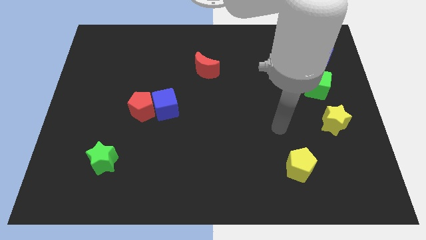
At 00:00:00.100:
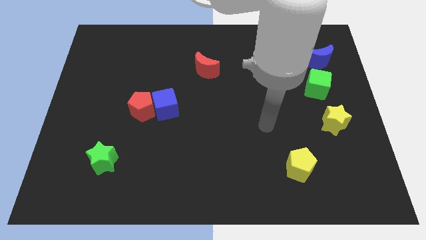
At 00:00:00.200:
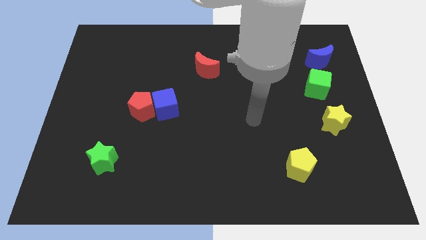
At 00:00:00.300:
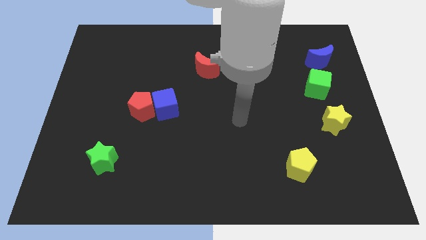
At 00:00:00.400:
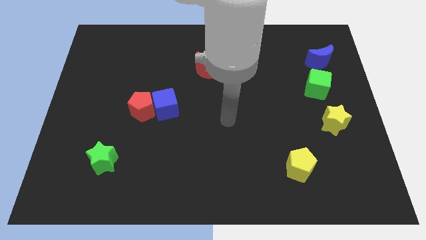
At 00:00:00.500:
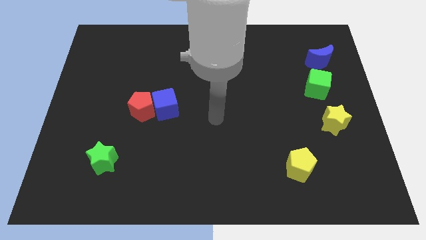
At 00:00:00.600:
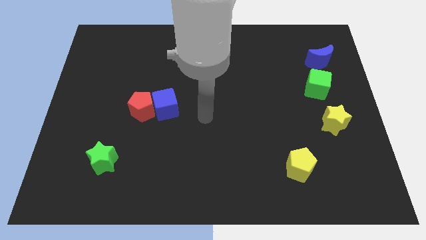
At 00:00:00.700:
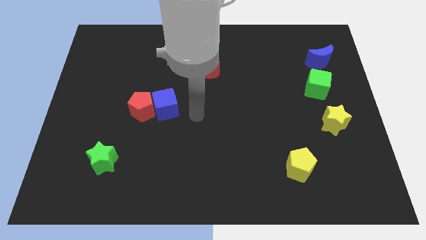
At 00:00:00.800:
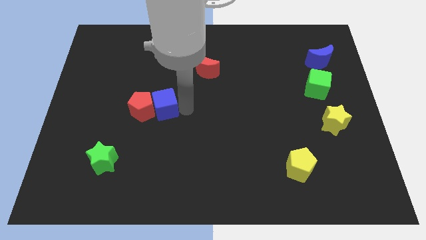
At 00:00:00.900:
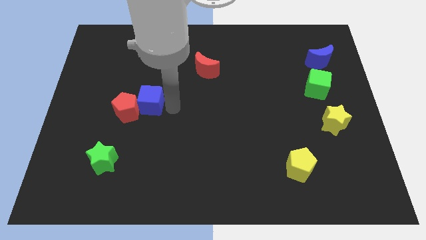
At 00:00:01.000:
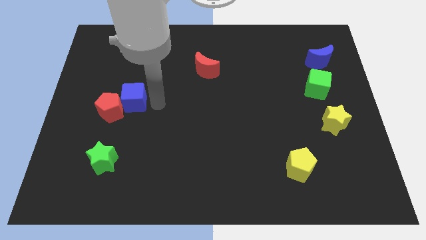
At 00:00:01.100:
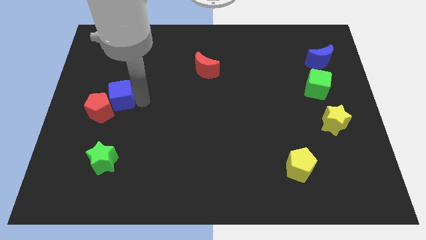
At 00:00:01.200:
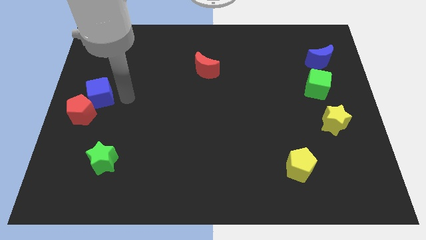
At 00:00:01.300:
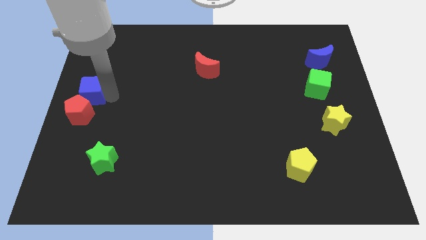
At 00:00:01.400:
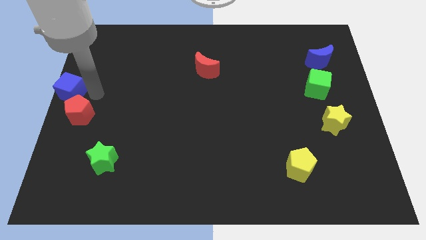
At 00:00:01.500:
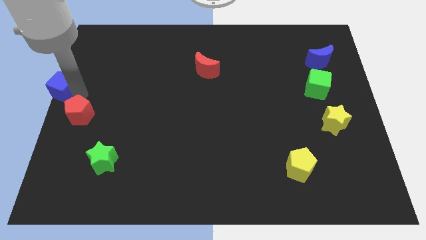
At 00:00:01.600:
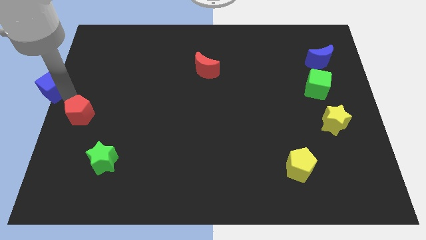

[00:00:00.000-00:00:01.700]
pull the red pentagon apart from the blue cube

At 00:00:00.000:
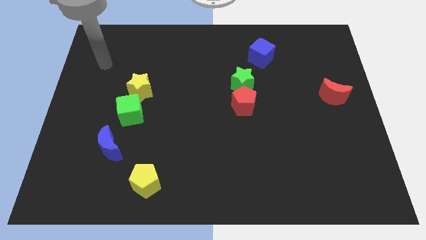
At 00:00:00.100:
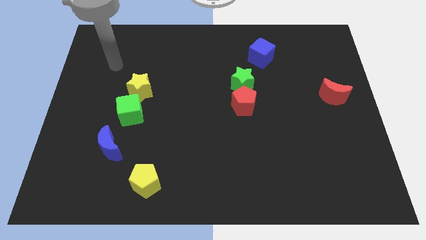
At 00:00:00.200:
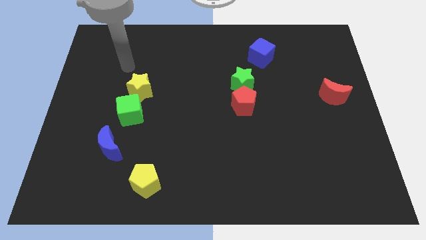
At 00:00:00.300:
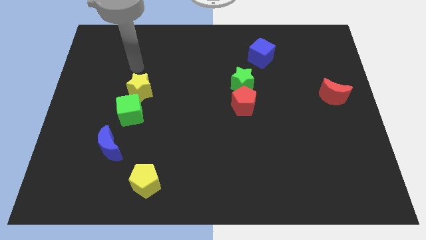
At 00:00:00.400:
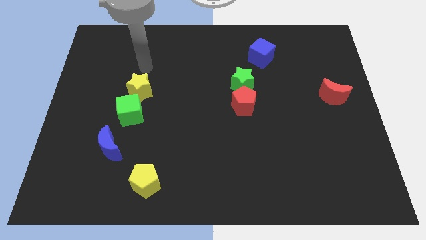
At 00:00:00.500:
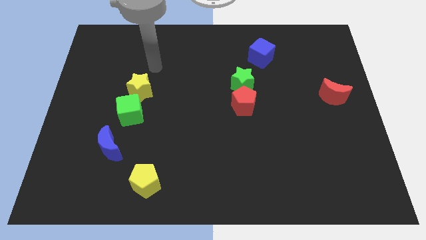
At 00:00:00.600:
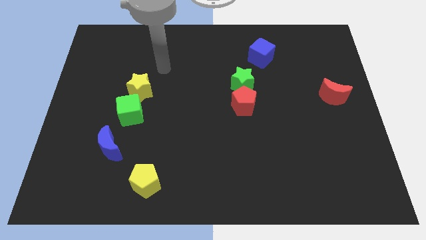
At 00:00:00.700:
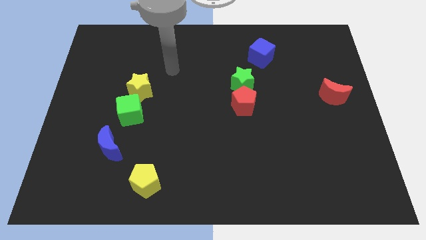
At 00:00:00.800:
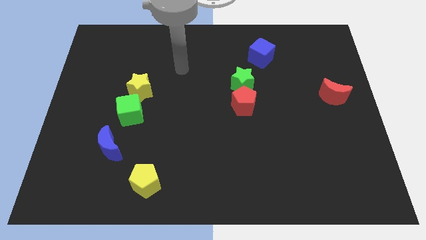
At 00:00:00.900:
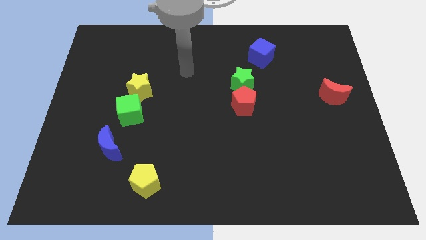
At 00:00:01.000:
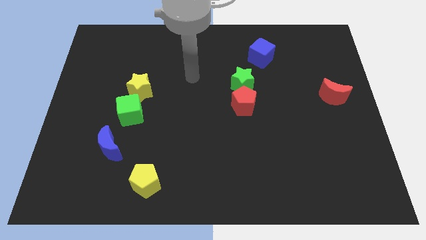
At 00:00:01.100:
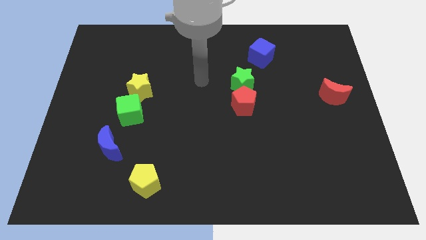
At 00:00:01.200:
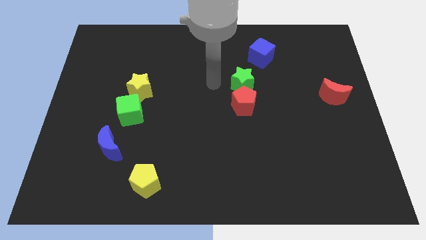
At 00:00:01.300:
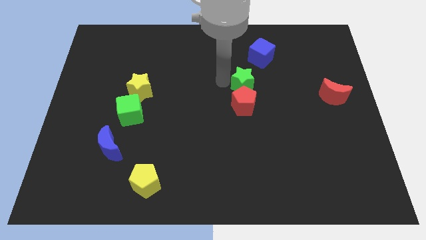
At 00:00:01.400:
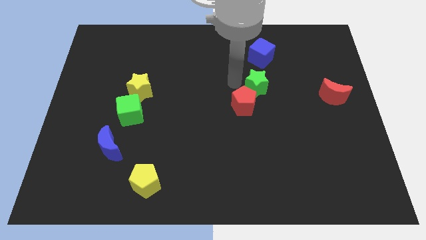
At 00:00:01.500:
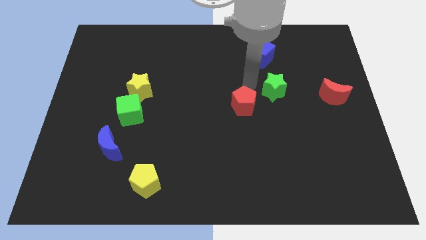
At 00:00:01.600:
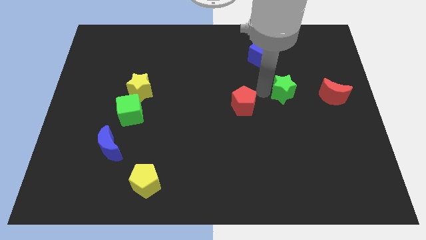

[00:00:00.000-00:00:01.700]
move the red pentagon away from the green star

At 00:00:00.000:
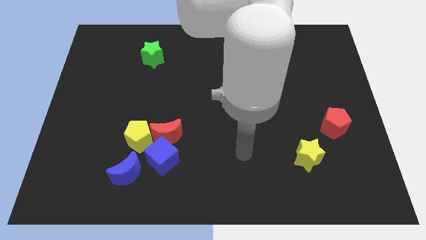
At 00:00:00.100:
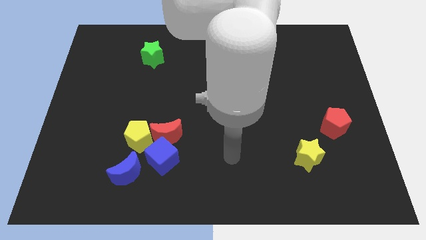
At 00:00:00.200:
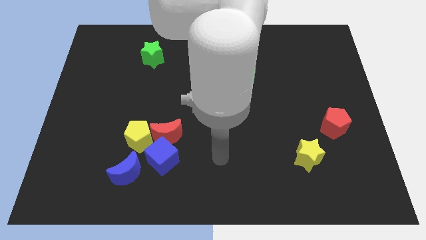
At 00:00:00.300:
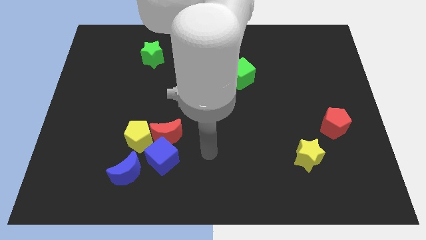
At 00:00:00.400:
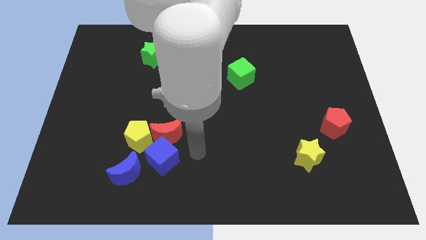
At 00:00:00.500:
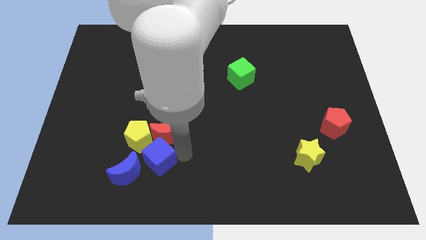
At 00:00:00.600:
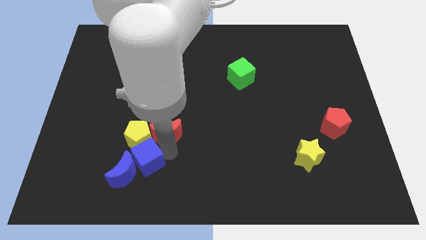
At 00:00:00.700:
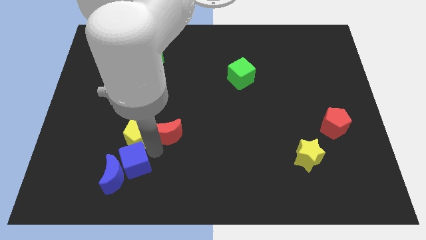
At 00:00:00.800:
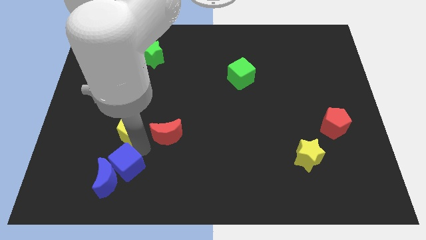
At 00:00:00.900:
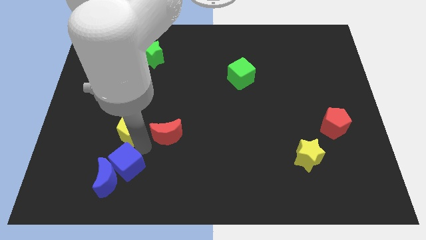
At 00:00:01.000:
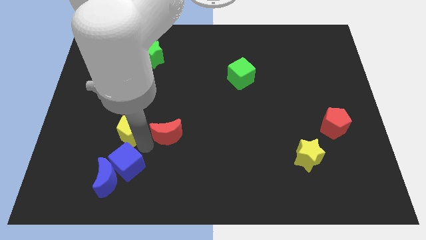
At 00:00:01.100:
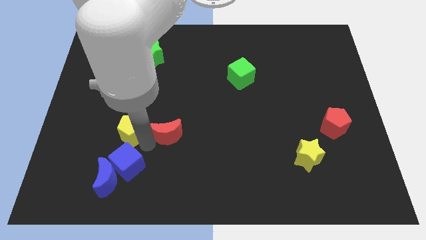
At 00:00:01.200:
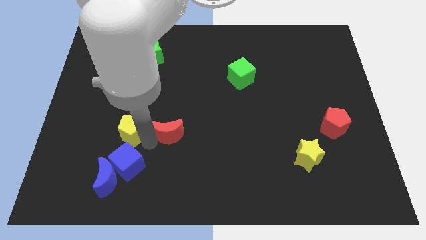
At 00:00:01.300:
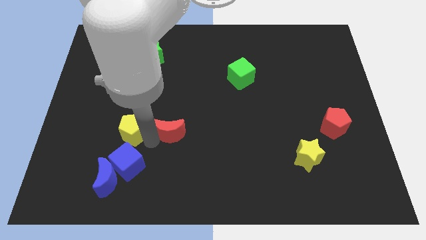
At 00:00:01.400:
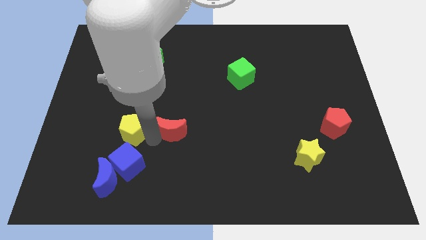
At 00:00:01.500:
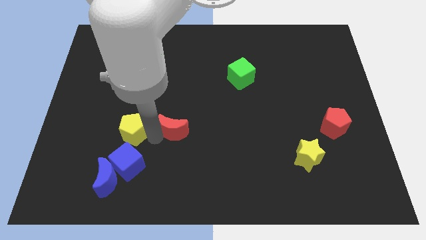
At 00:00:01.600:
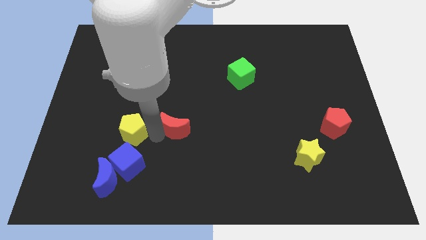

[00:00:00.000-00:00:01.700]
pull the red moon apart from the blue cube and yellow pentagon

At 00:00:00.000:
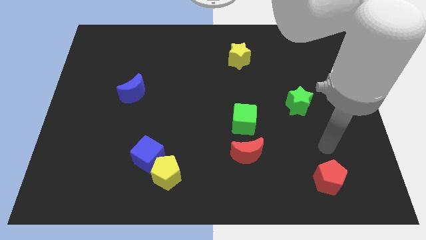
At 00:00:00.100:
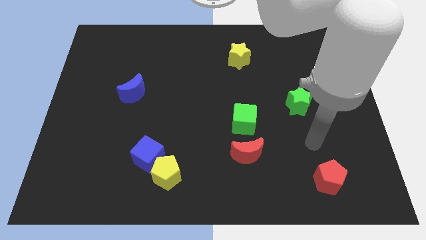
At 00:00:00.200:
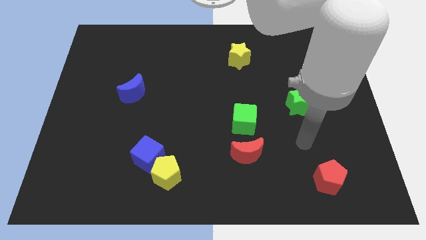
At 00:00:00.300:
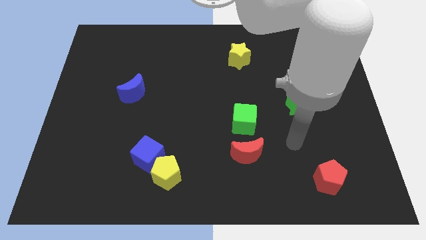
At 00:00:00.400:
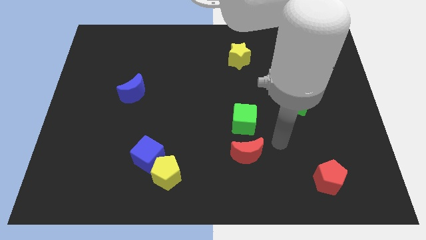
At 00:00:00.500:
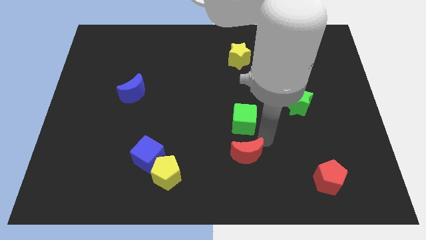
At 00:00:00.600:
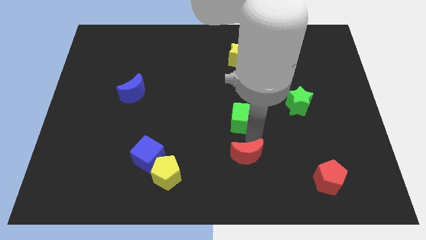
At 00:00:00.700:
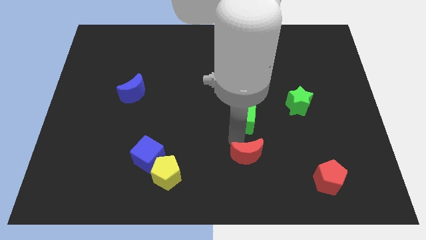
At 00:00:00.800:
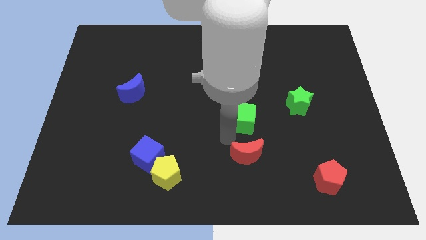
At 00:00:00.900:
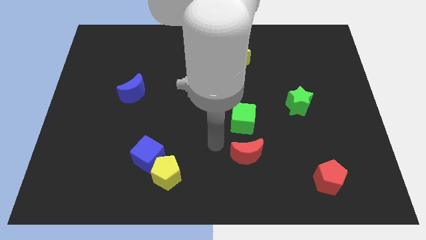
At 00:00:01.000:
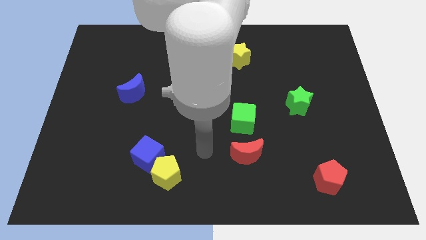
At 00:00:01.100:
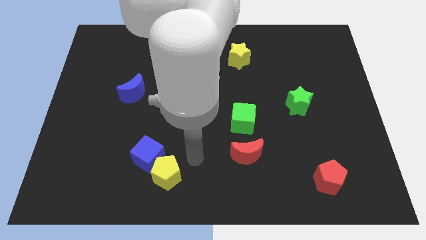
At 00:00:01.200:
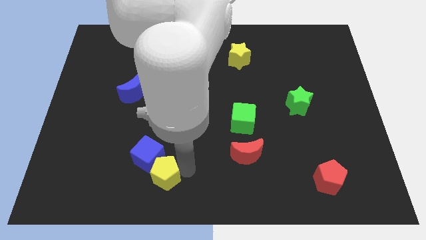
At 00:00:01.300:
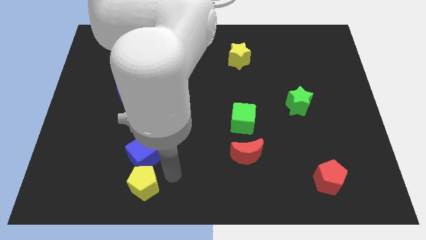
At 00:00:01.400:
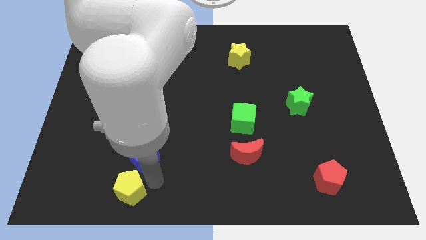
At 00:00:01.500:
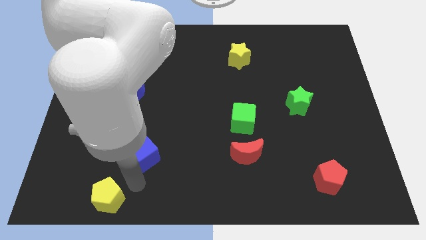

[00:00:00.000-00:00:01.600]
move the blue cube away from the yellow pentagon

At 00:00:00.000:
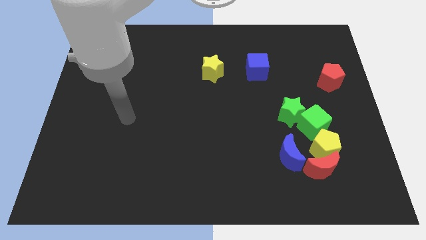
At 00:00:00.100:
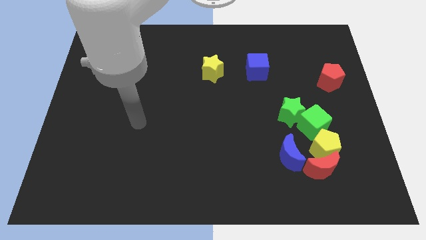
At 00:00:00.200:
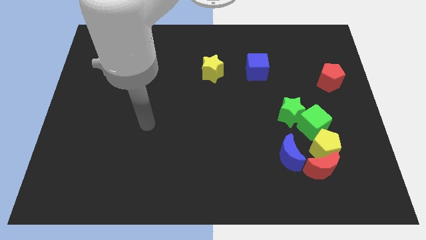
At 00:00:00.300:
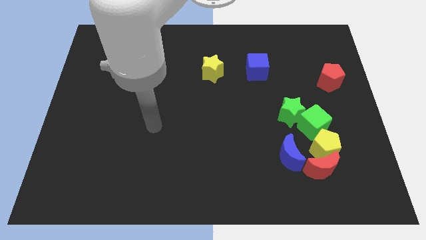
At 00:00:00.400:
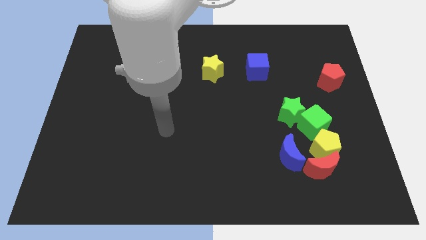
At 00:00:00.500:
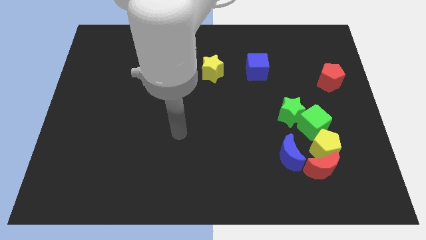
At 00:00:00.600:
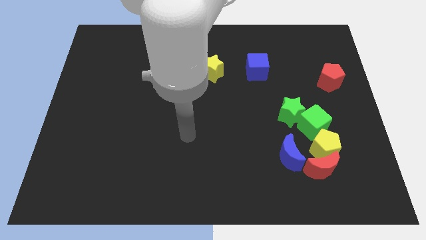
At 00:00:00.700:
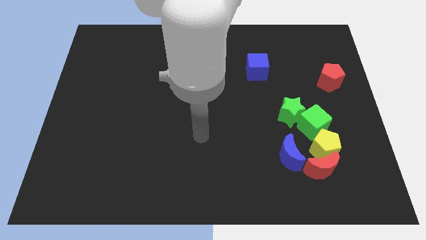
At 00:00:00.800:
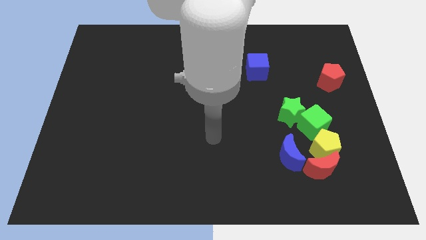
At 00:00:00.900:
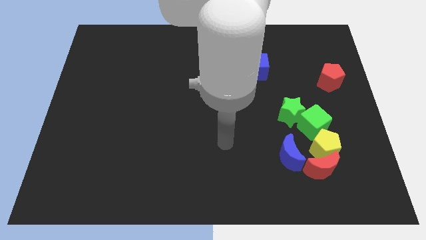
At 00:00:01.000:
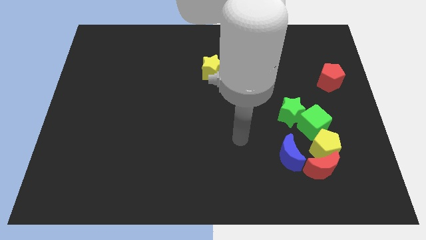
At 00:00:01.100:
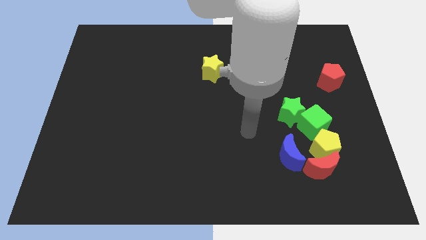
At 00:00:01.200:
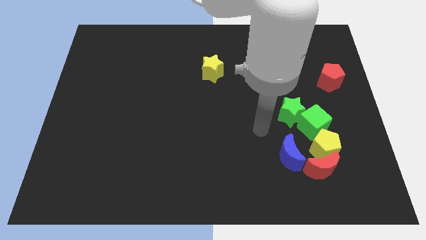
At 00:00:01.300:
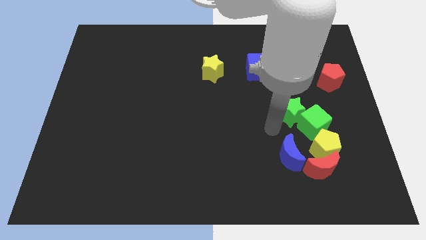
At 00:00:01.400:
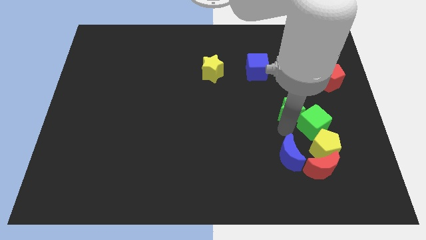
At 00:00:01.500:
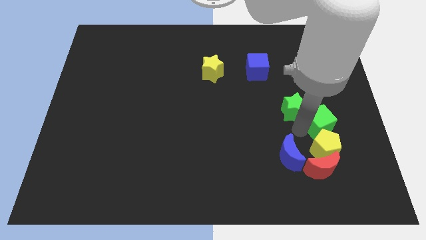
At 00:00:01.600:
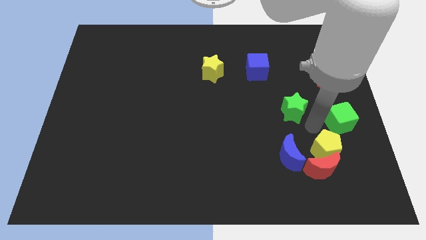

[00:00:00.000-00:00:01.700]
move the green star away from the green cube

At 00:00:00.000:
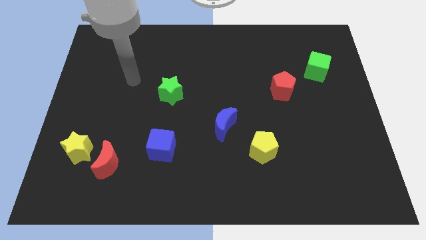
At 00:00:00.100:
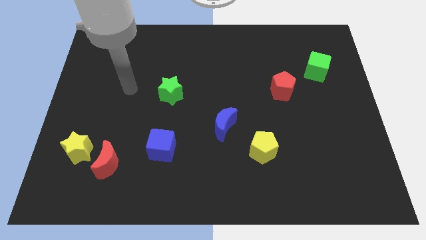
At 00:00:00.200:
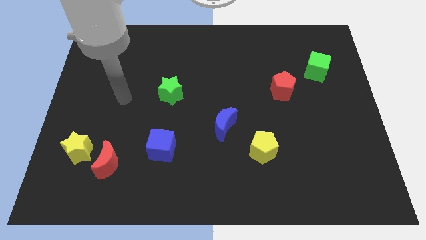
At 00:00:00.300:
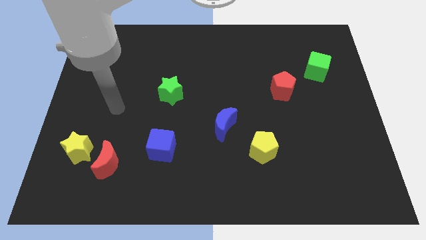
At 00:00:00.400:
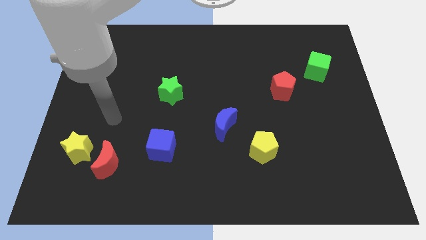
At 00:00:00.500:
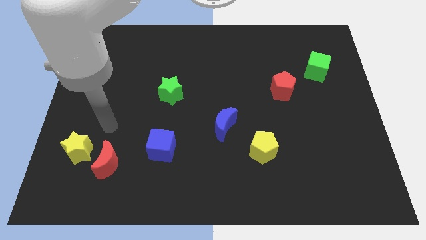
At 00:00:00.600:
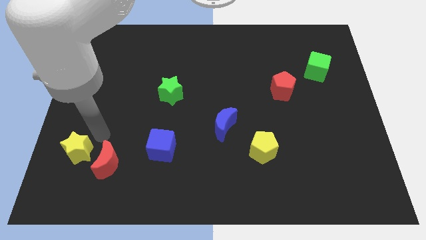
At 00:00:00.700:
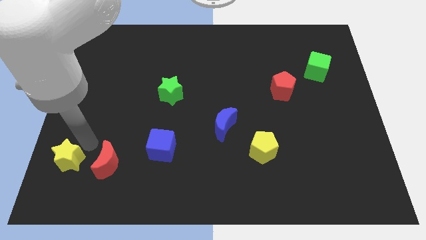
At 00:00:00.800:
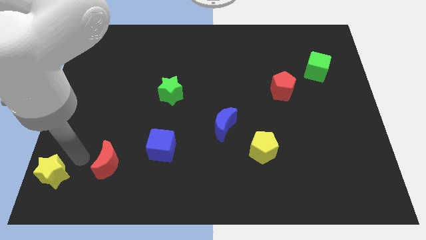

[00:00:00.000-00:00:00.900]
move the red moon away from the yellow star
